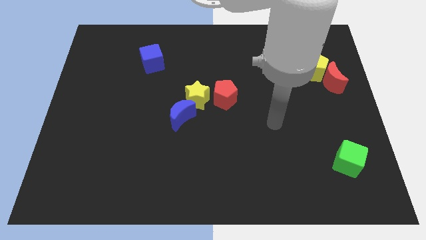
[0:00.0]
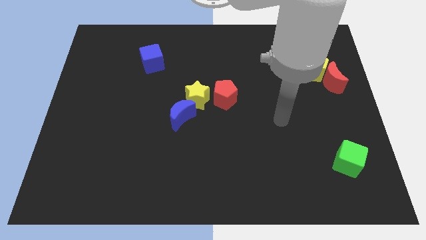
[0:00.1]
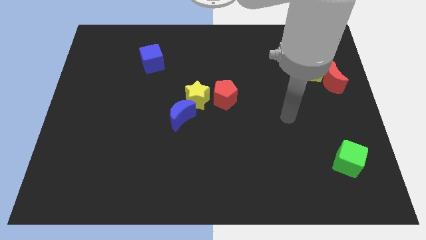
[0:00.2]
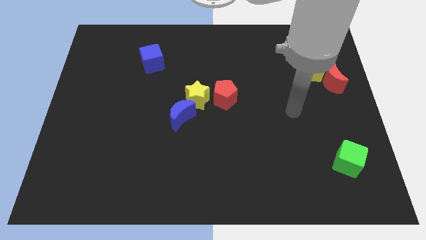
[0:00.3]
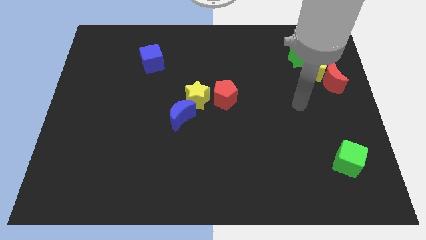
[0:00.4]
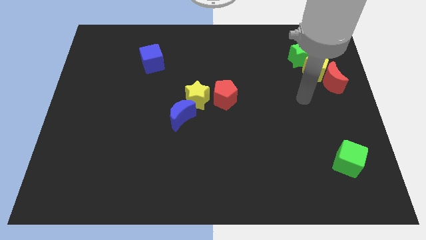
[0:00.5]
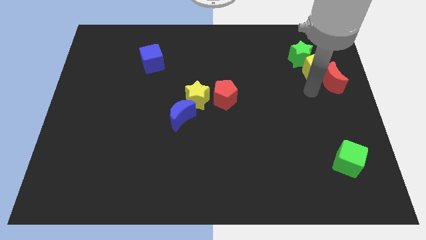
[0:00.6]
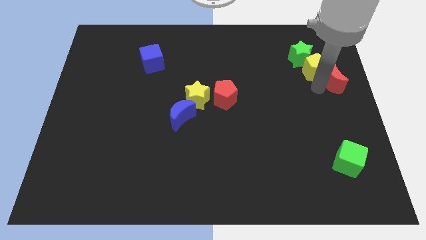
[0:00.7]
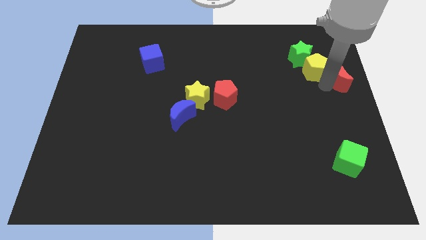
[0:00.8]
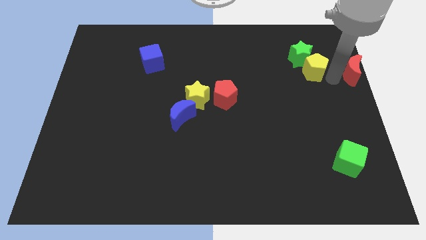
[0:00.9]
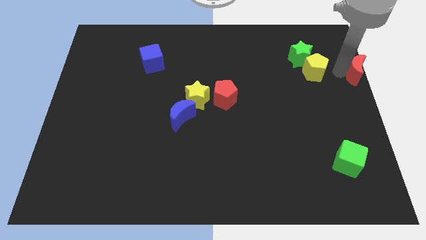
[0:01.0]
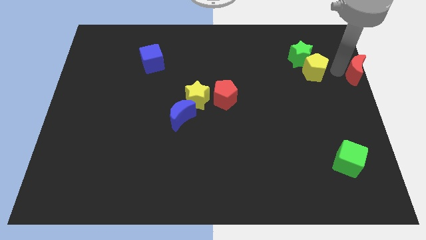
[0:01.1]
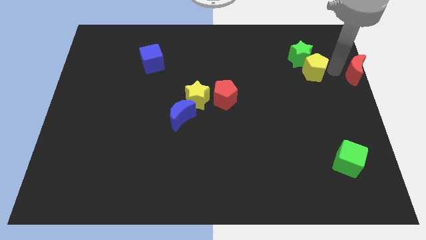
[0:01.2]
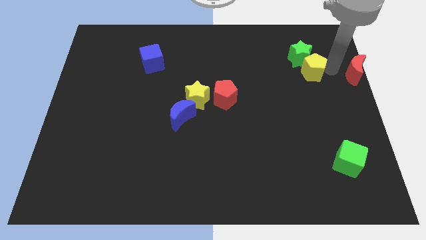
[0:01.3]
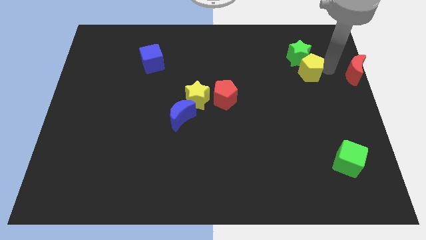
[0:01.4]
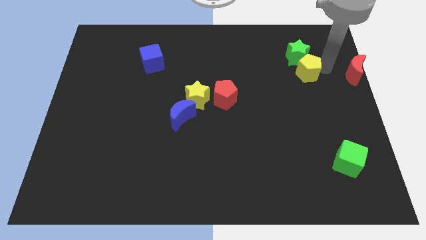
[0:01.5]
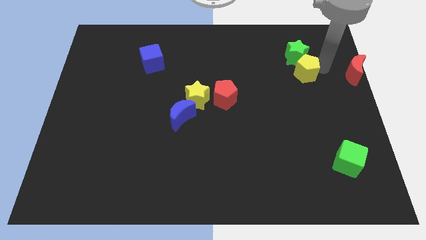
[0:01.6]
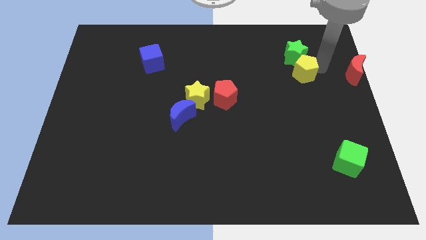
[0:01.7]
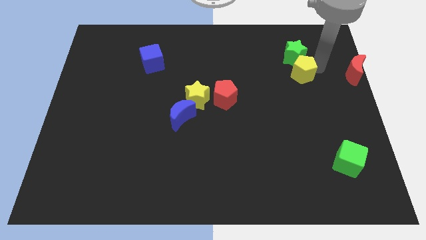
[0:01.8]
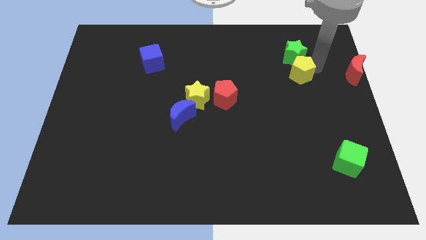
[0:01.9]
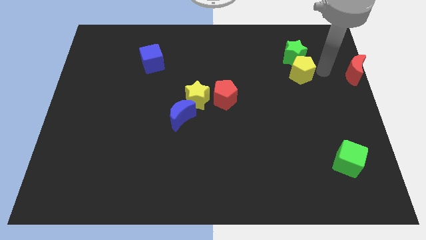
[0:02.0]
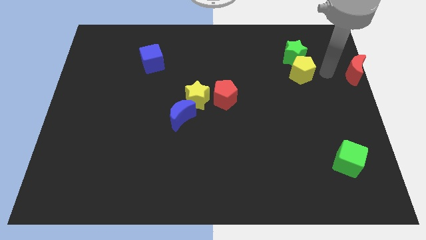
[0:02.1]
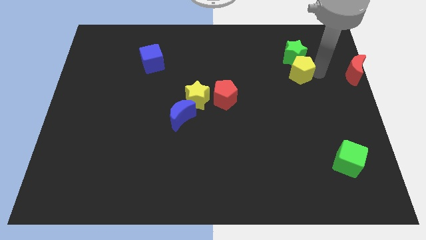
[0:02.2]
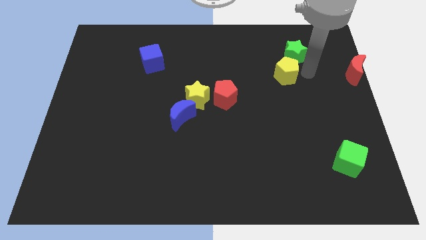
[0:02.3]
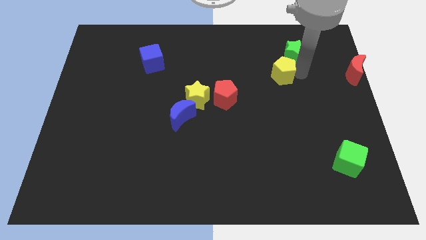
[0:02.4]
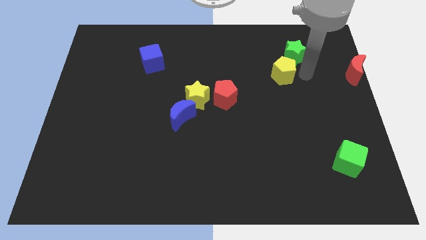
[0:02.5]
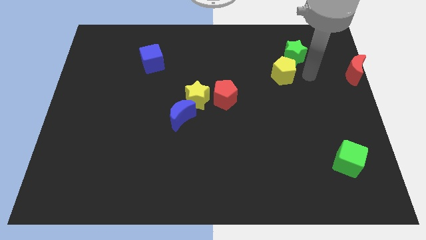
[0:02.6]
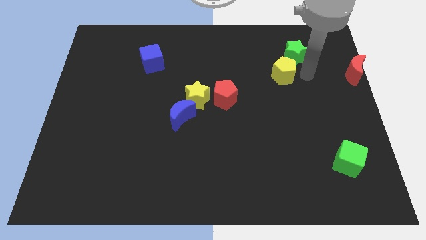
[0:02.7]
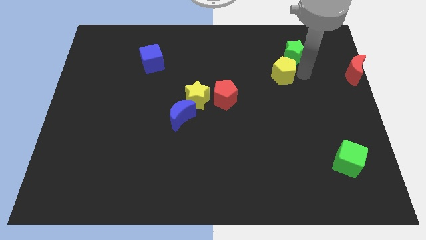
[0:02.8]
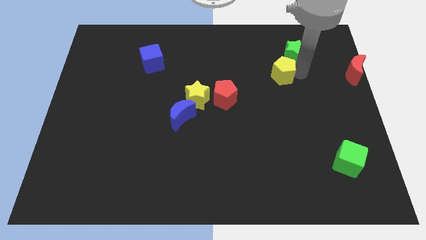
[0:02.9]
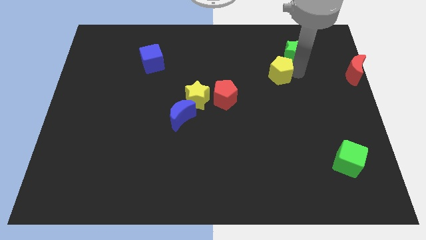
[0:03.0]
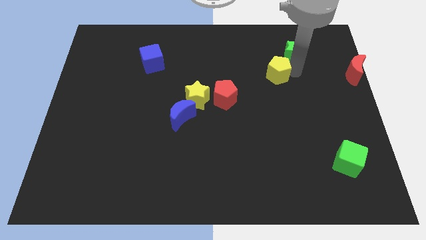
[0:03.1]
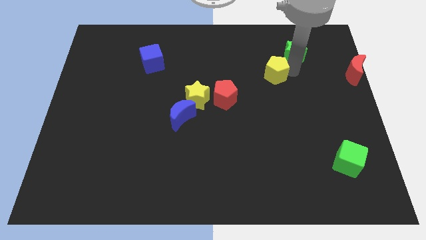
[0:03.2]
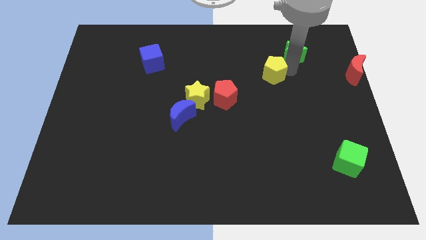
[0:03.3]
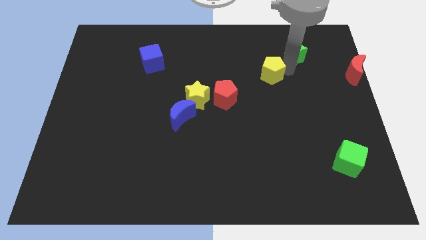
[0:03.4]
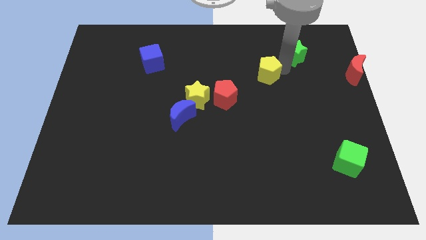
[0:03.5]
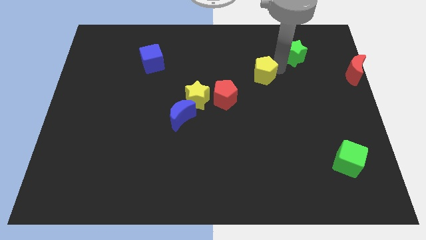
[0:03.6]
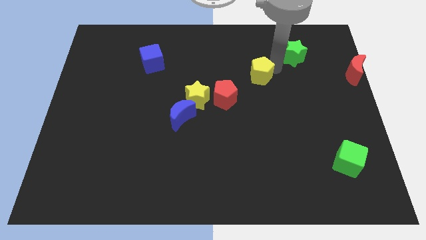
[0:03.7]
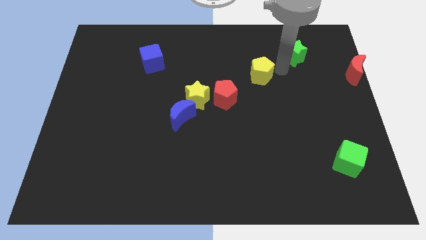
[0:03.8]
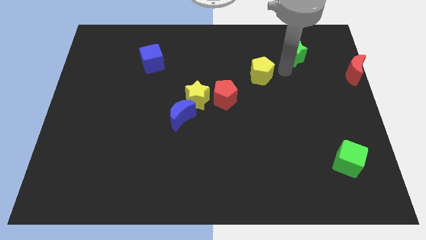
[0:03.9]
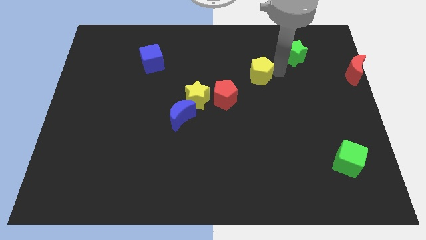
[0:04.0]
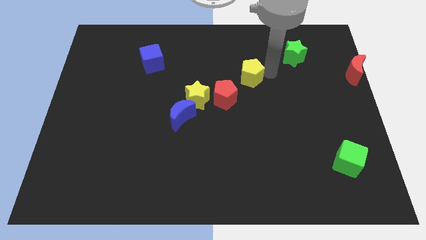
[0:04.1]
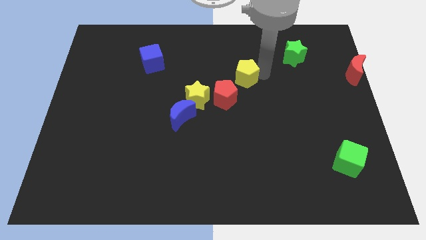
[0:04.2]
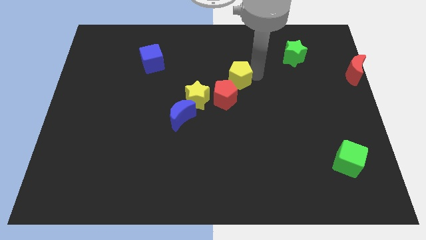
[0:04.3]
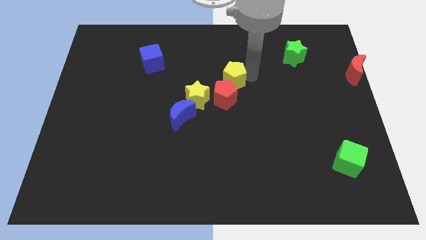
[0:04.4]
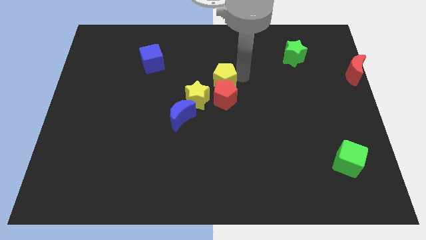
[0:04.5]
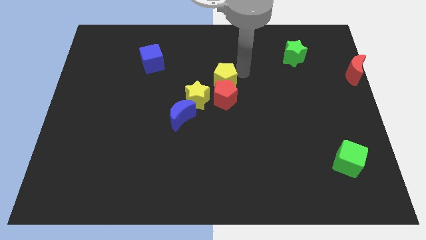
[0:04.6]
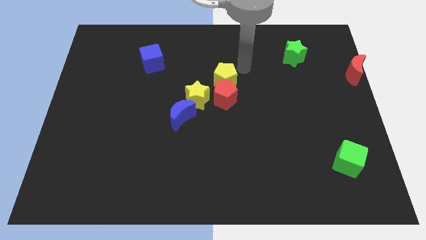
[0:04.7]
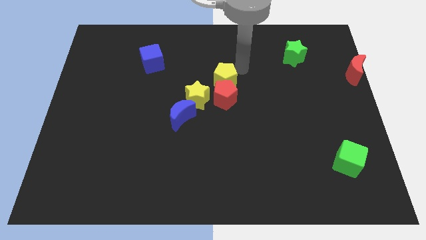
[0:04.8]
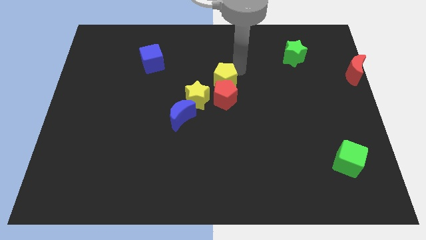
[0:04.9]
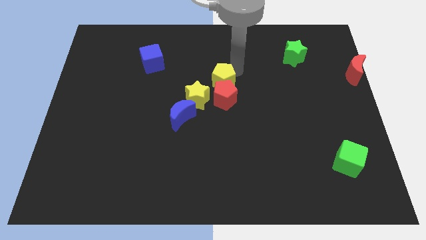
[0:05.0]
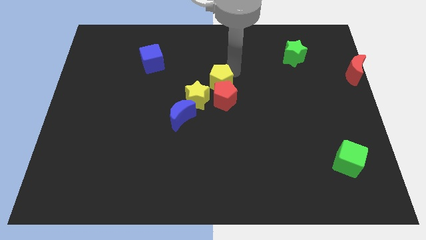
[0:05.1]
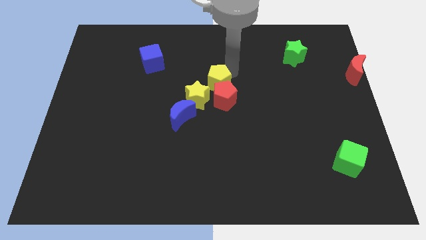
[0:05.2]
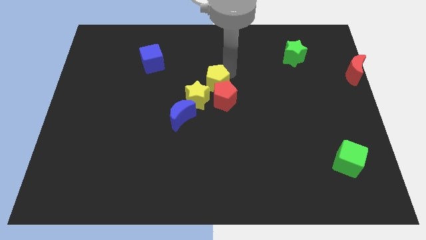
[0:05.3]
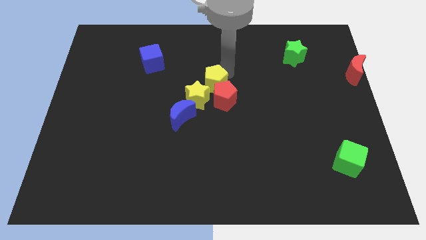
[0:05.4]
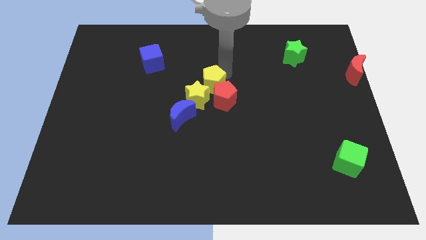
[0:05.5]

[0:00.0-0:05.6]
put the yellow pentagon close to the yellow star

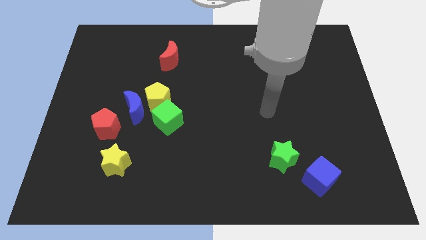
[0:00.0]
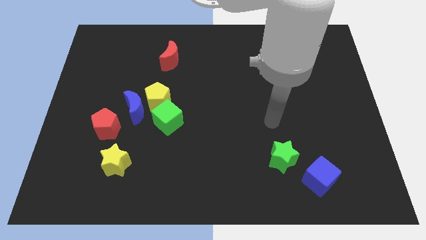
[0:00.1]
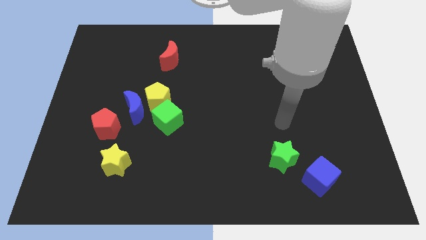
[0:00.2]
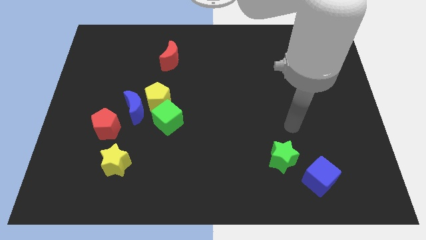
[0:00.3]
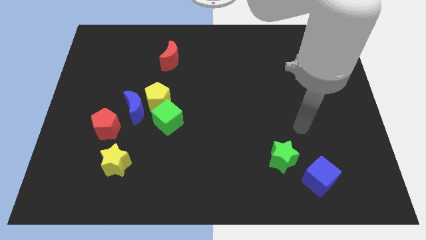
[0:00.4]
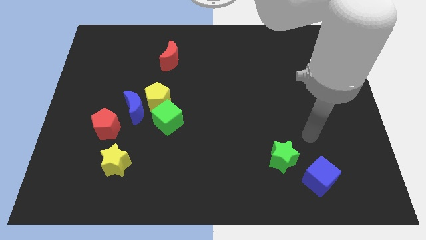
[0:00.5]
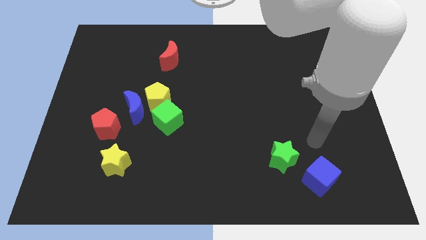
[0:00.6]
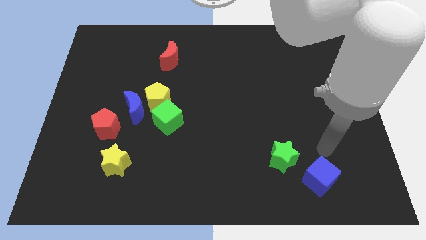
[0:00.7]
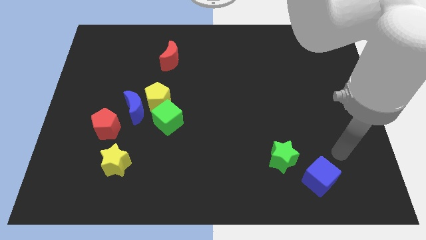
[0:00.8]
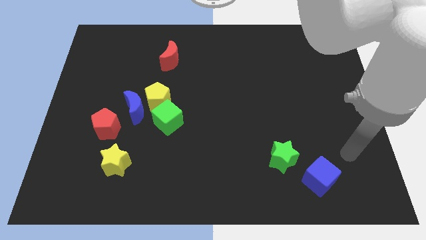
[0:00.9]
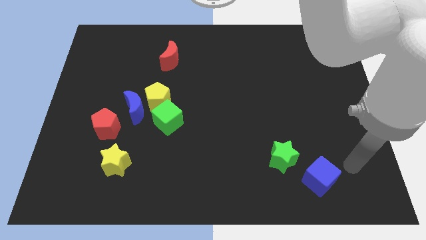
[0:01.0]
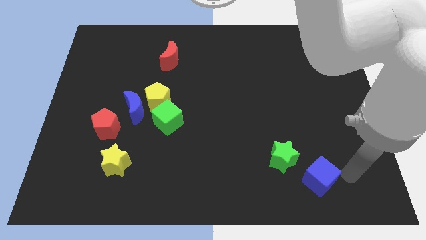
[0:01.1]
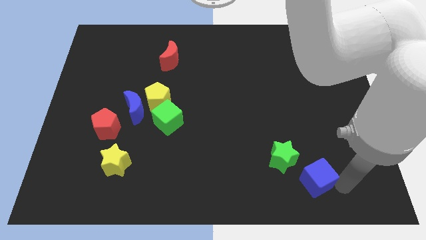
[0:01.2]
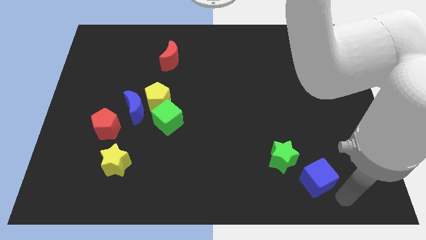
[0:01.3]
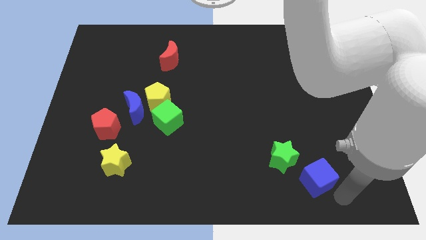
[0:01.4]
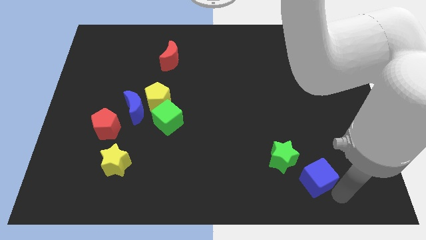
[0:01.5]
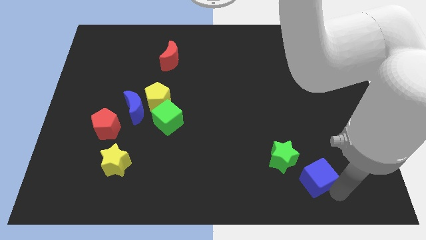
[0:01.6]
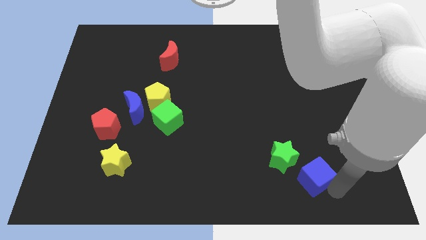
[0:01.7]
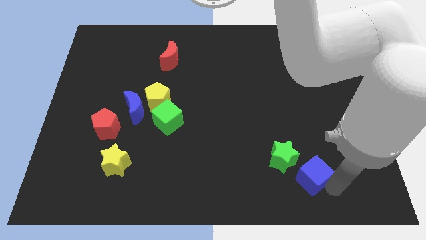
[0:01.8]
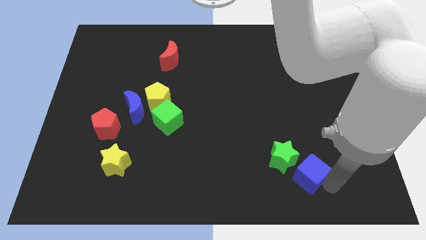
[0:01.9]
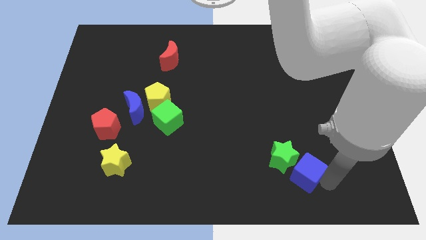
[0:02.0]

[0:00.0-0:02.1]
slide the blue cube to the green star
